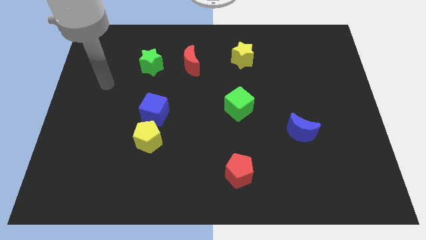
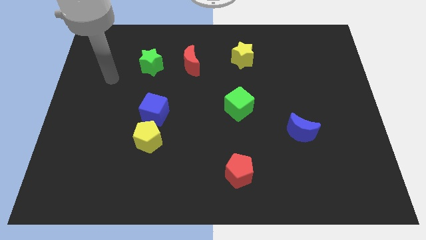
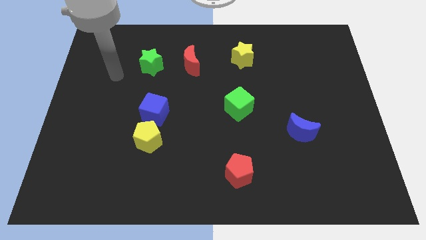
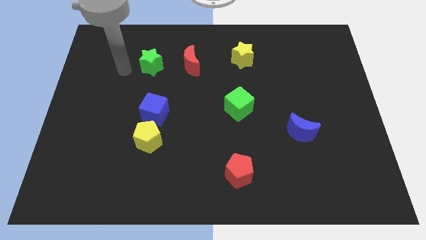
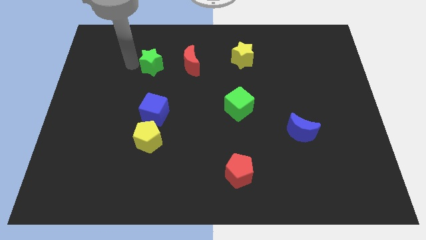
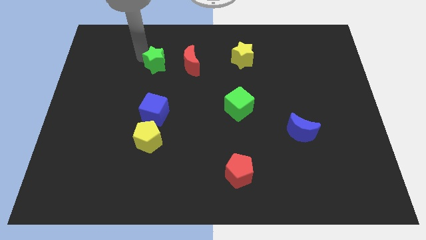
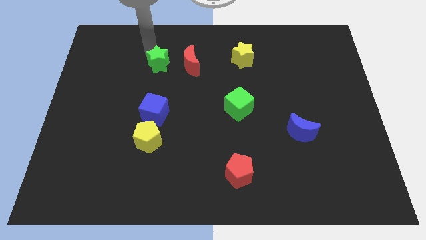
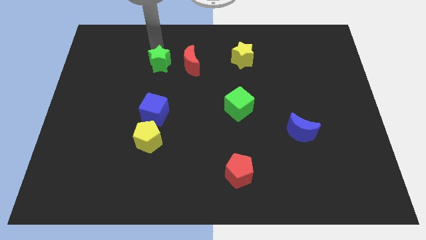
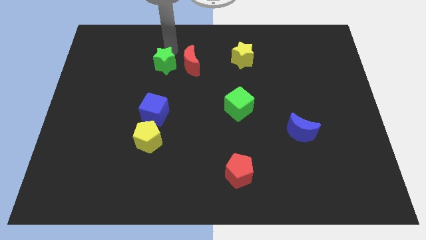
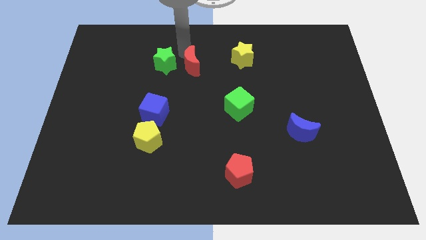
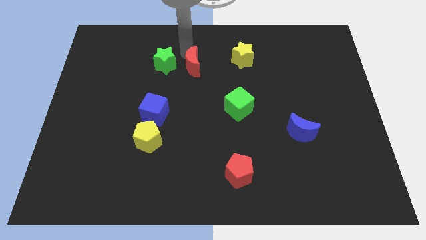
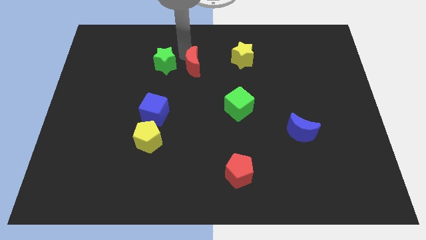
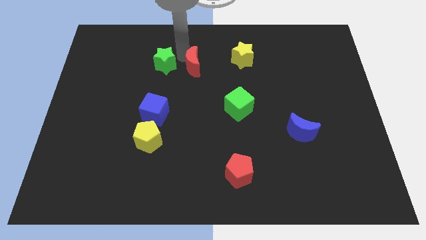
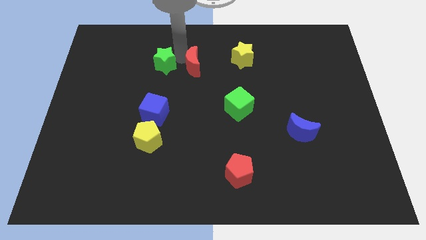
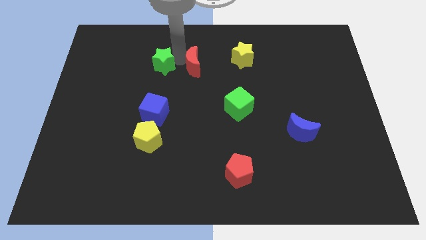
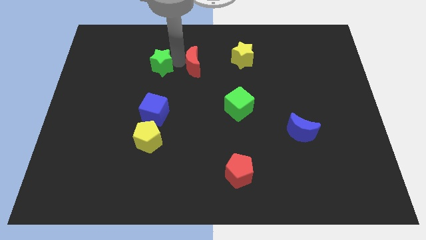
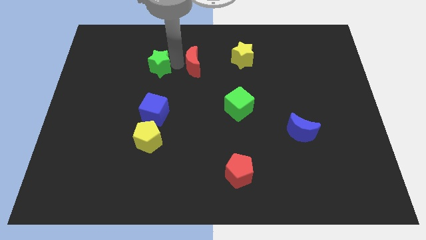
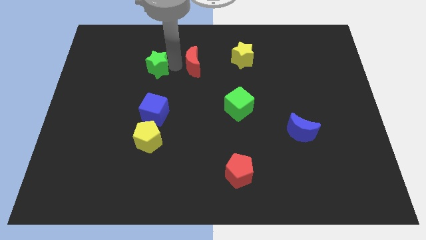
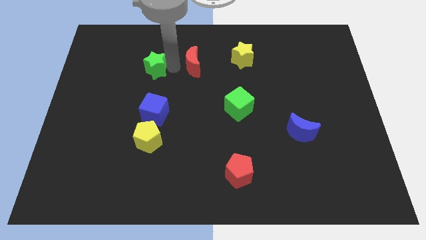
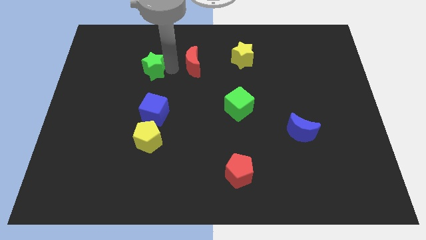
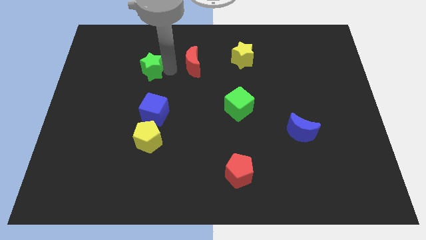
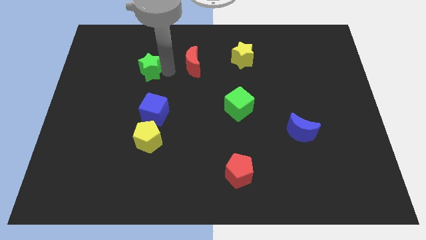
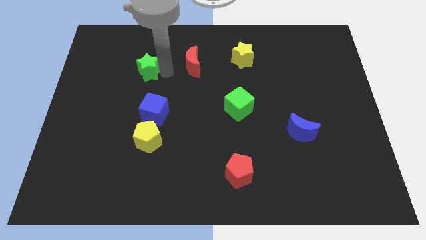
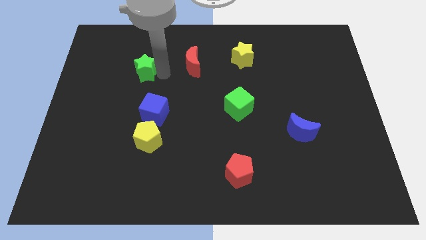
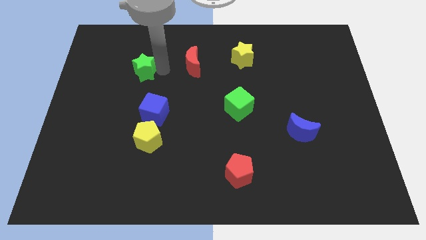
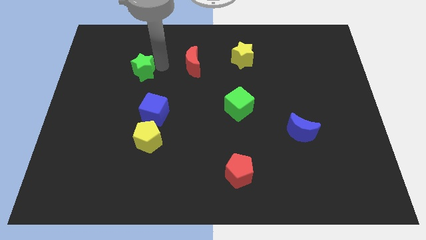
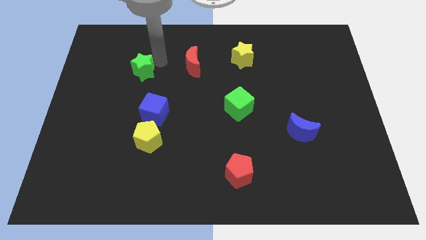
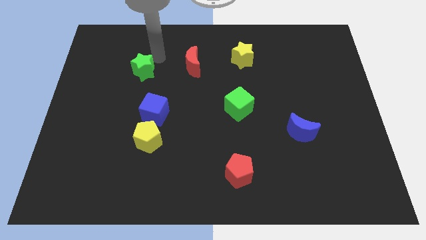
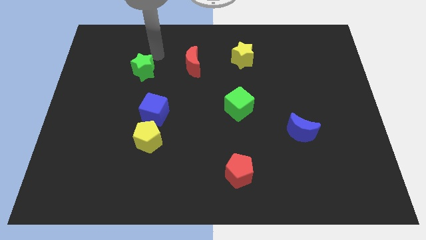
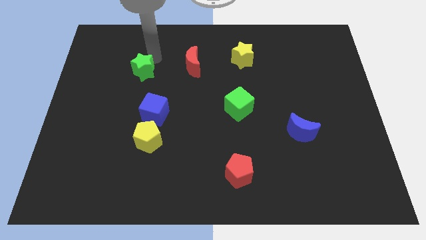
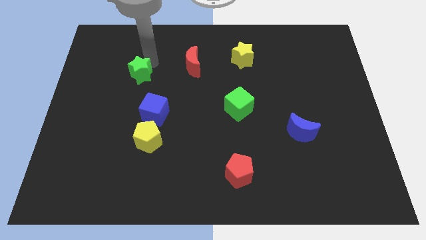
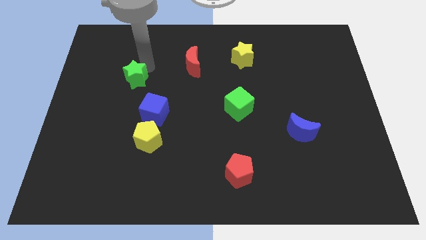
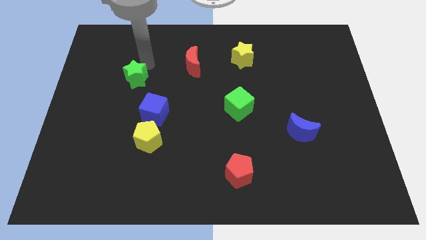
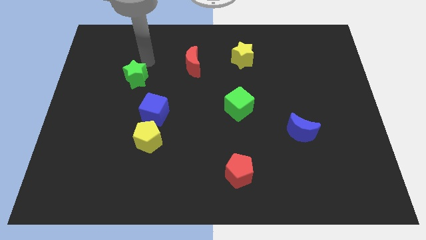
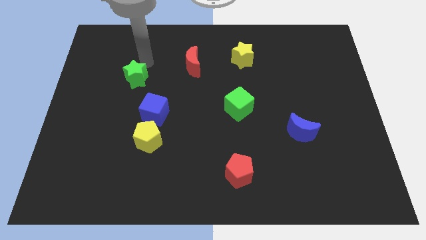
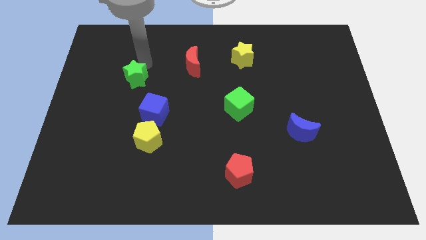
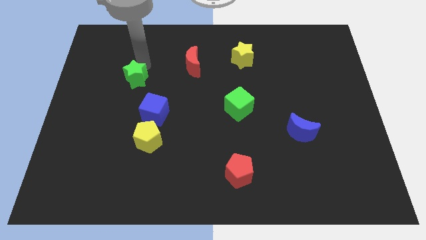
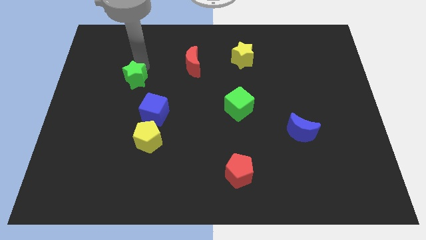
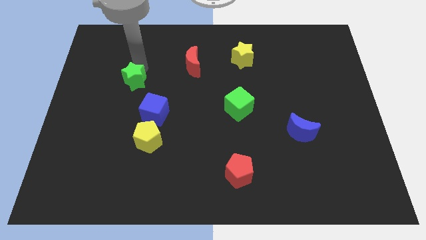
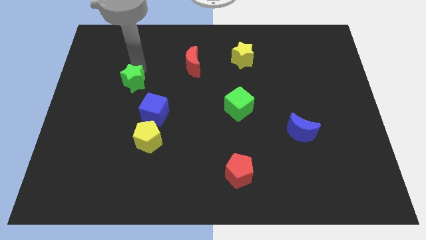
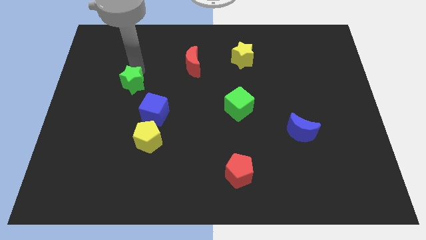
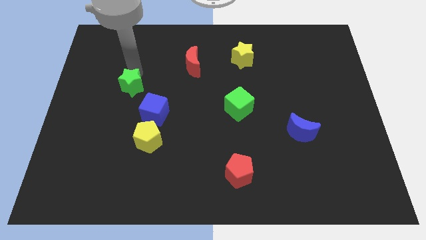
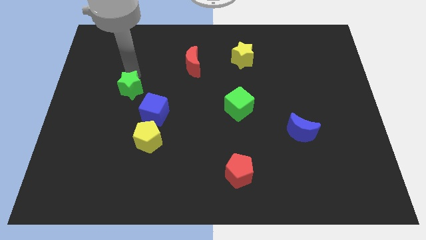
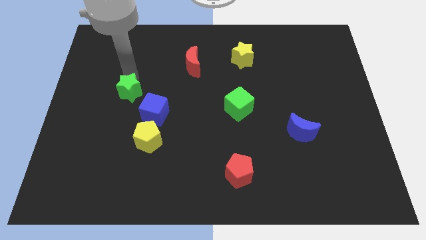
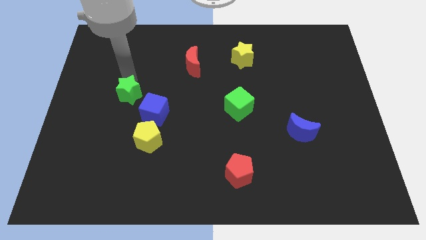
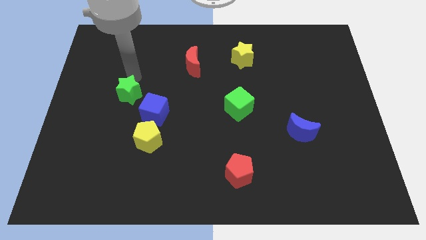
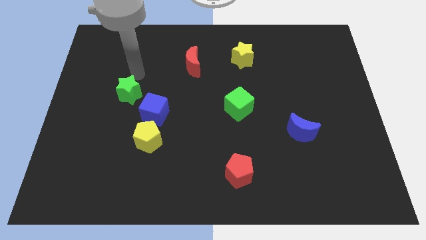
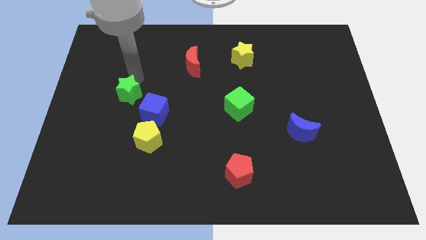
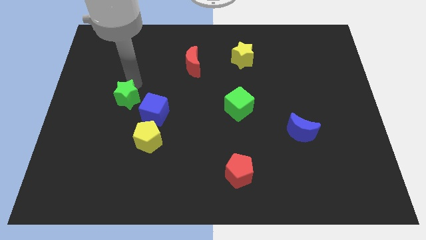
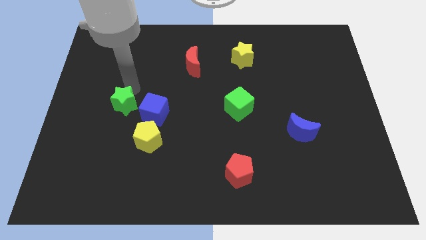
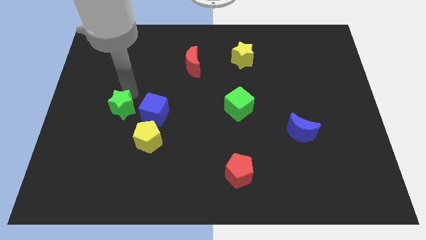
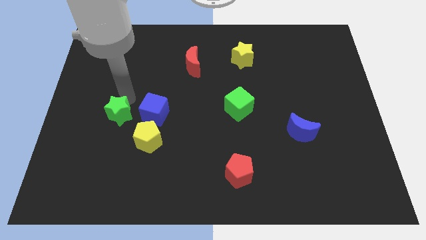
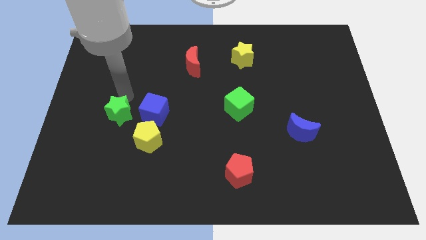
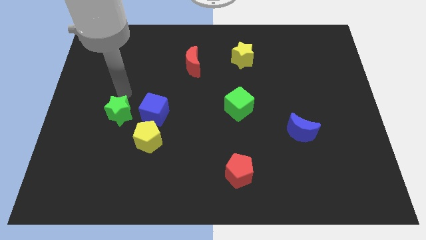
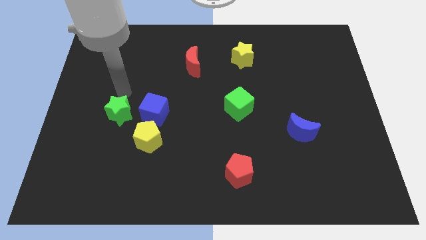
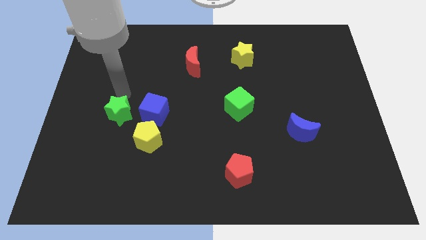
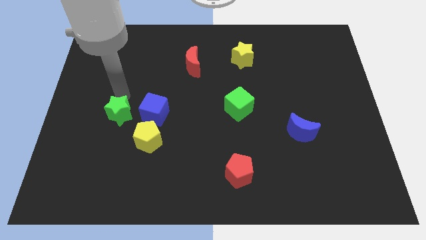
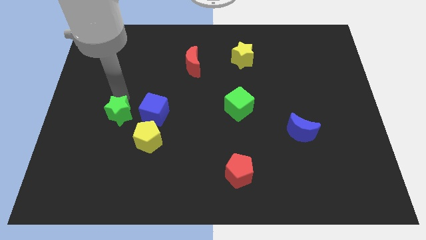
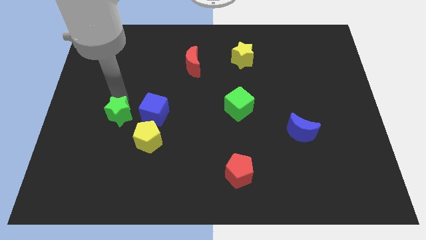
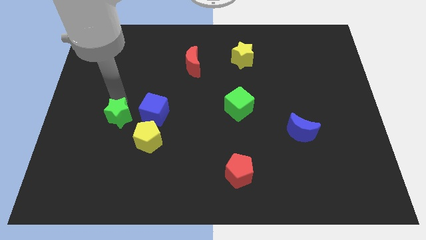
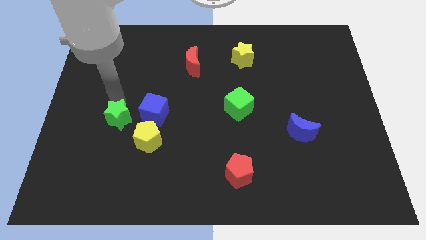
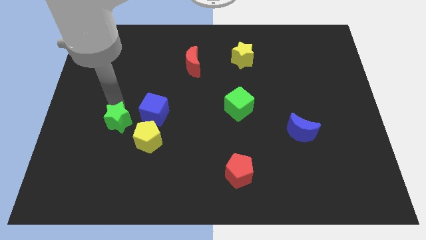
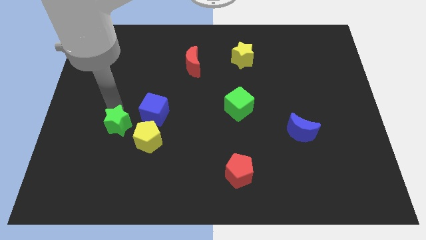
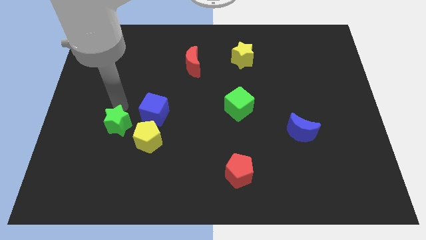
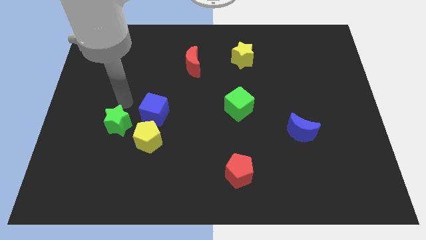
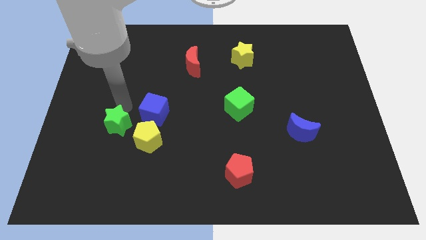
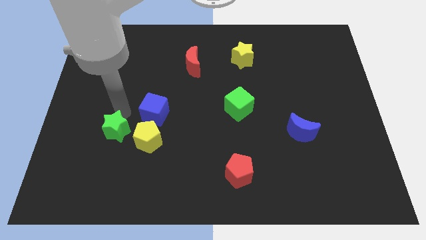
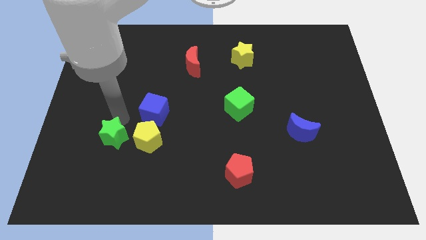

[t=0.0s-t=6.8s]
slide the green star downwards

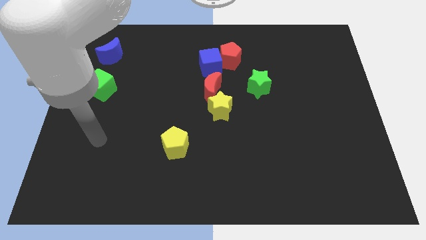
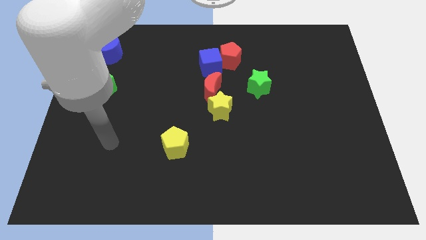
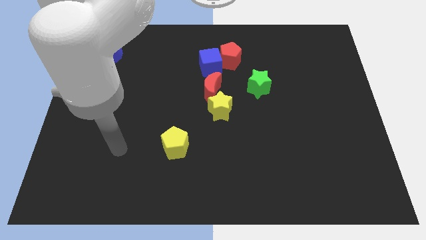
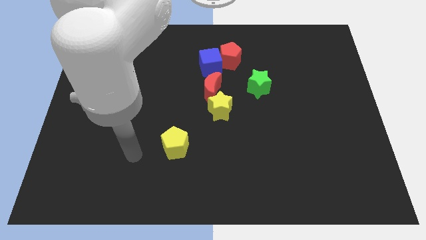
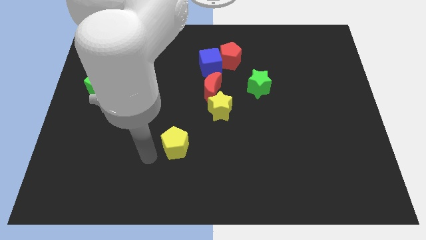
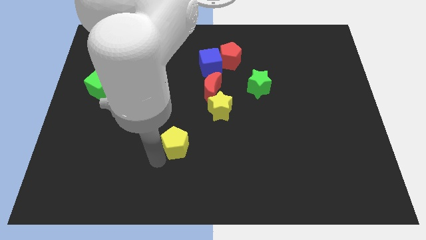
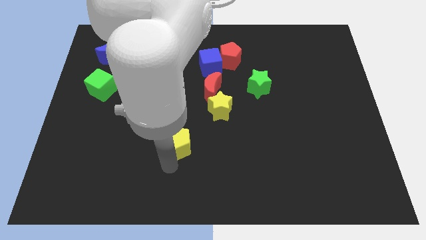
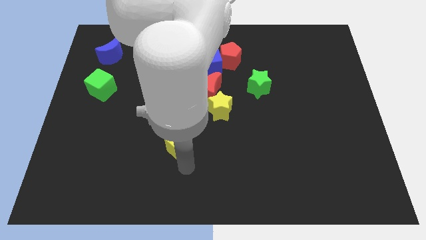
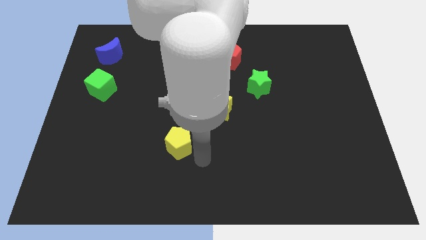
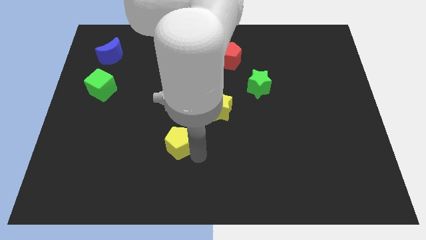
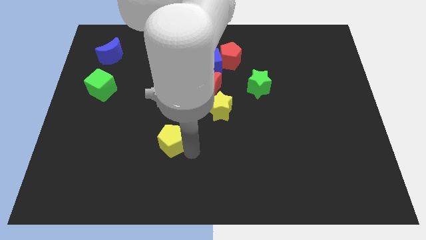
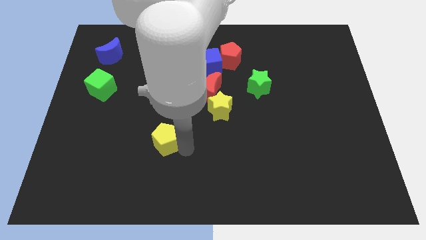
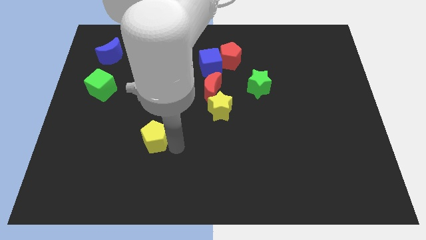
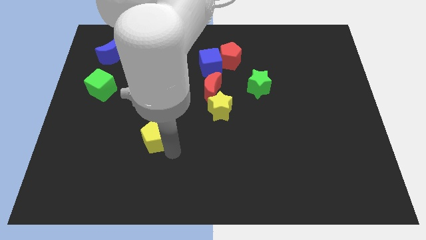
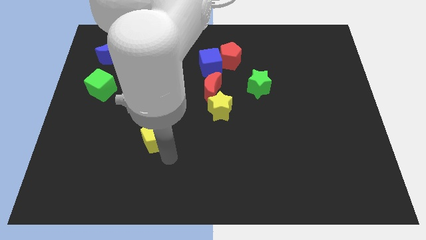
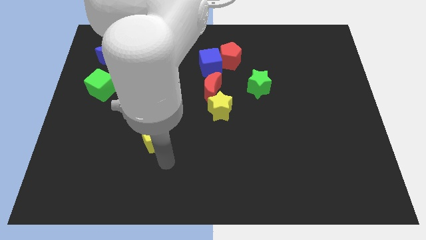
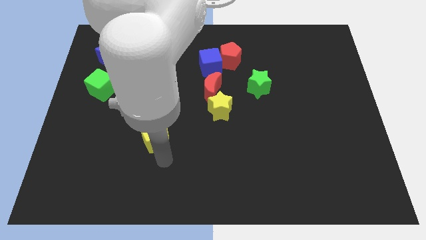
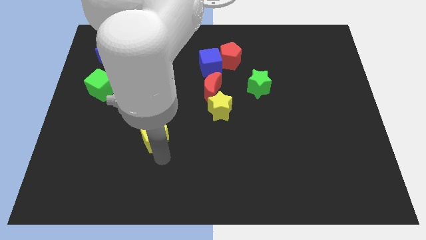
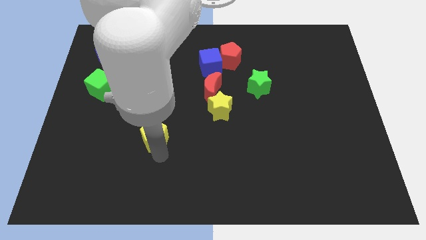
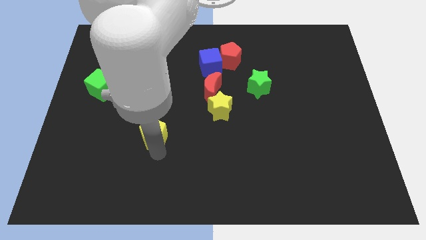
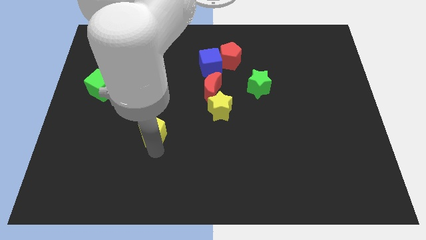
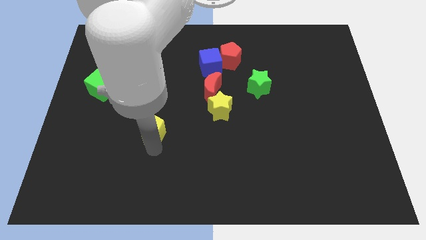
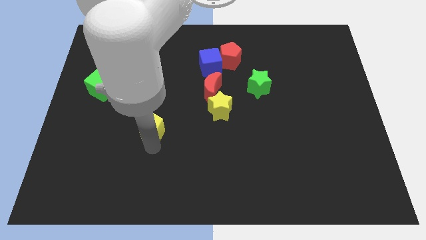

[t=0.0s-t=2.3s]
move the yellow pentagon upwards and to the left somewhat
